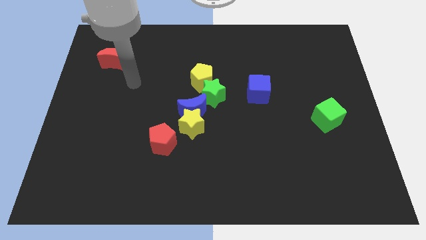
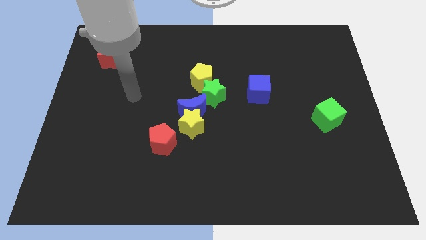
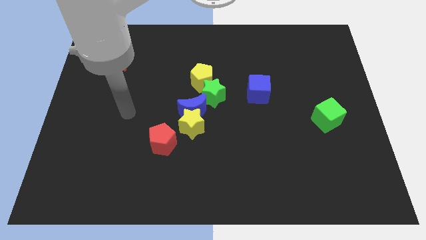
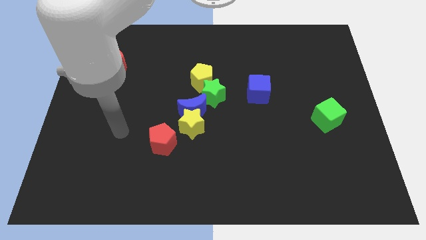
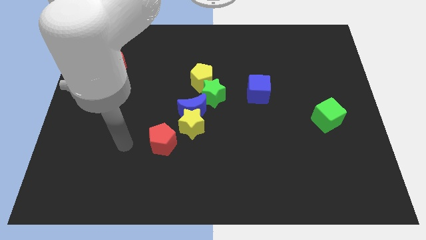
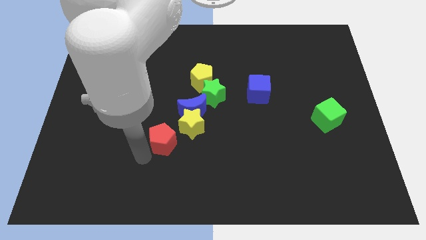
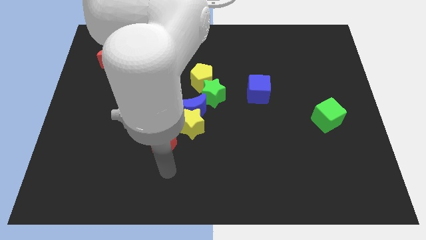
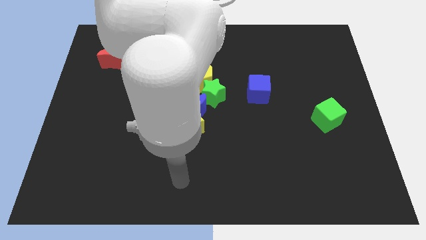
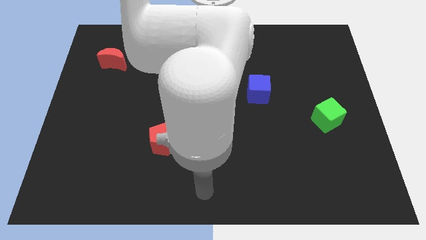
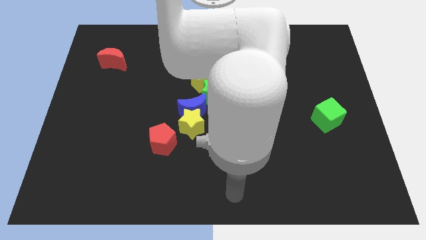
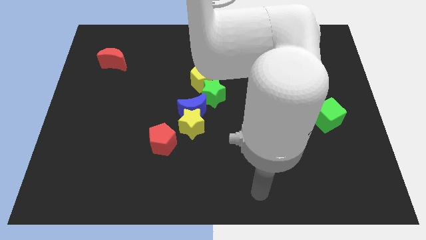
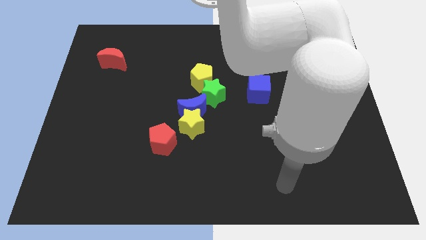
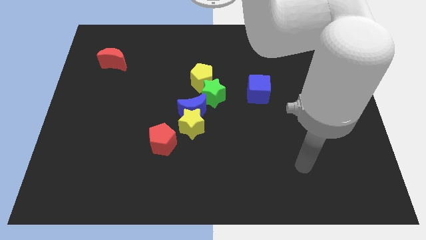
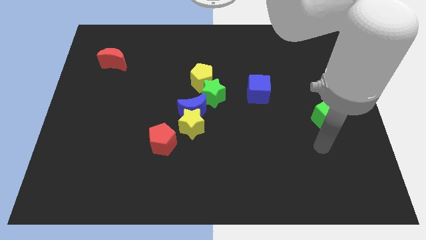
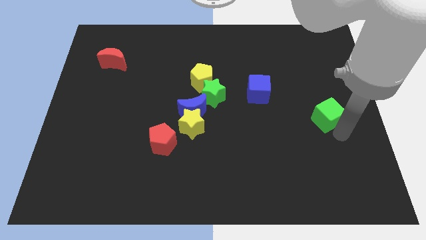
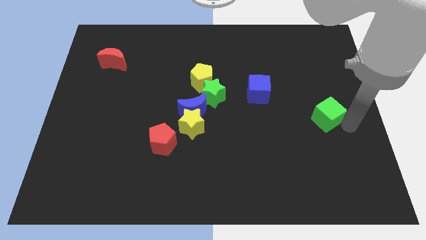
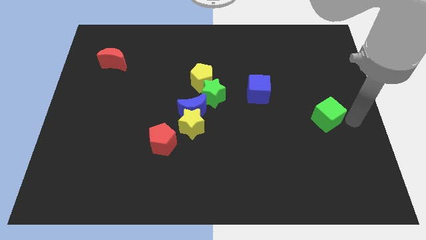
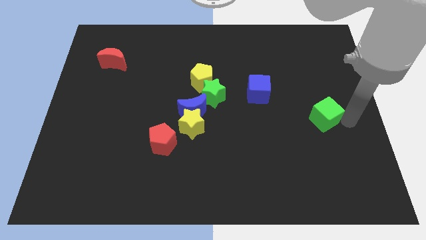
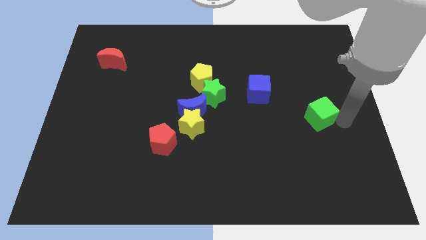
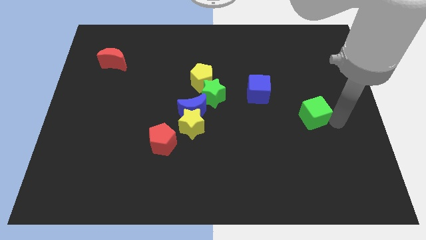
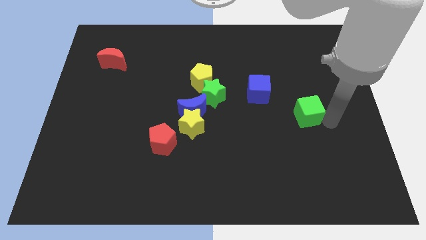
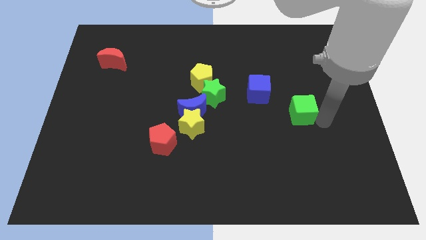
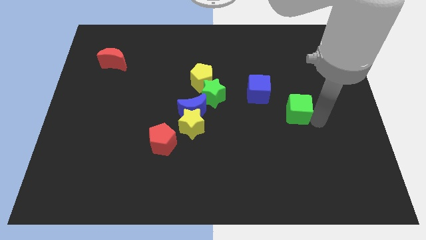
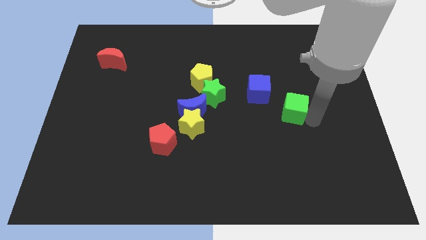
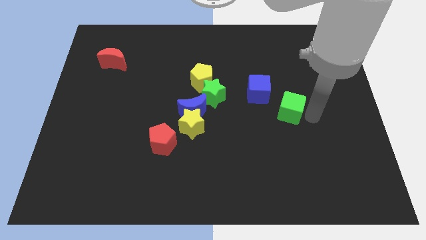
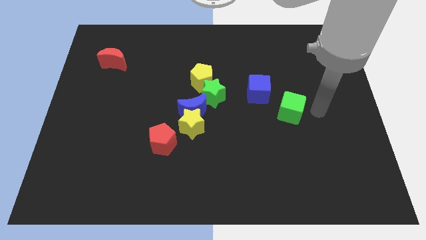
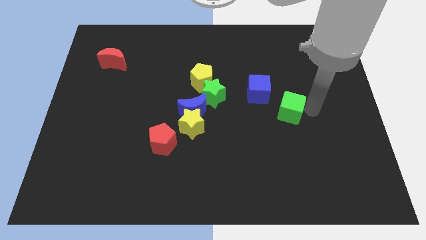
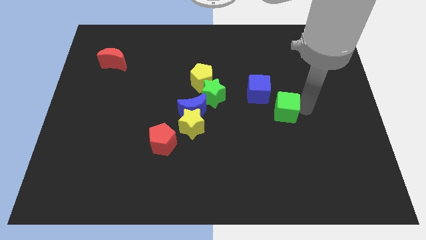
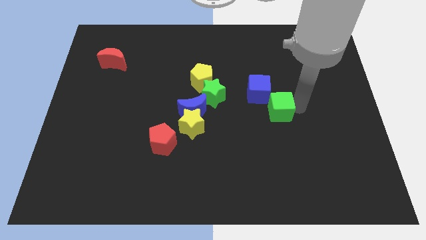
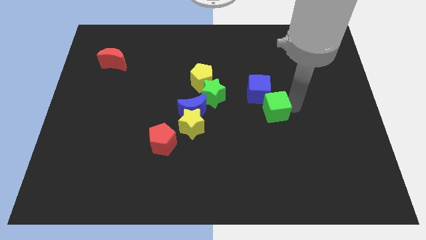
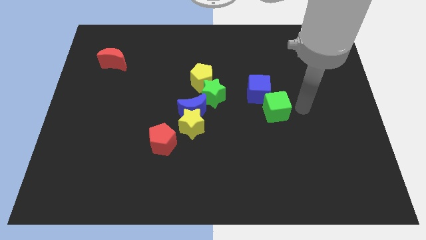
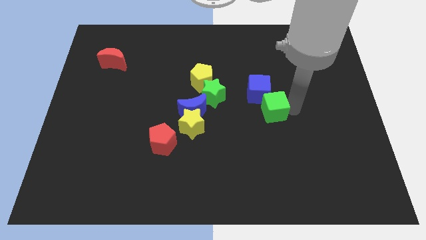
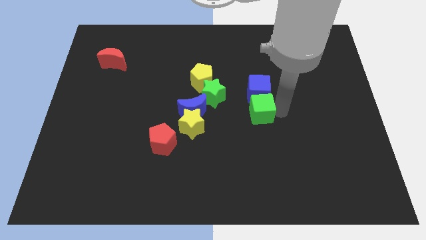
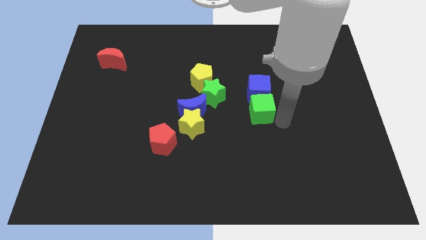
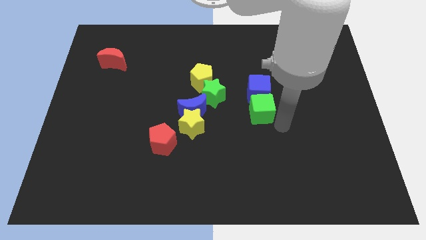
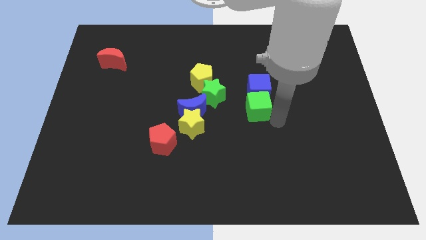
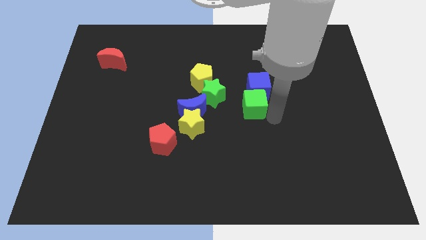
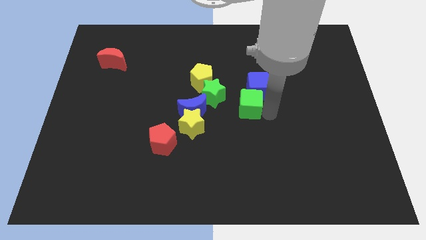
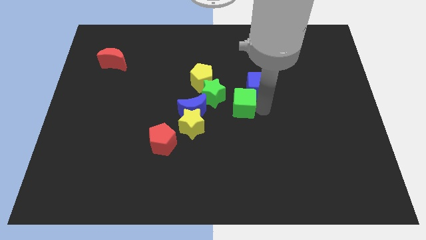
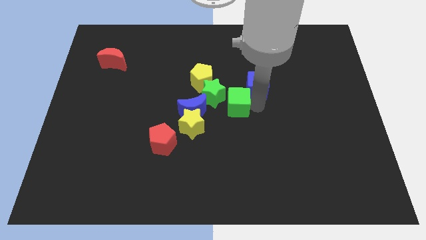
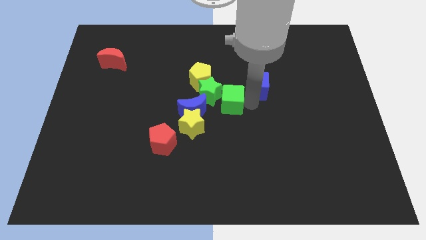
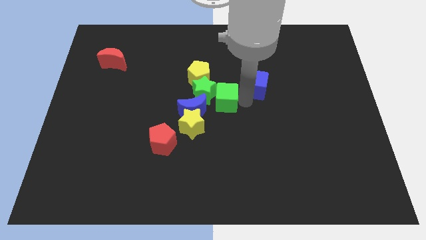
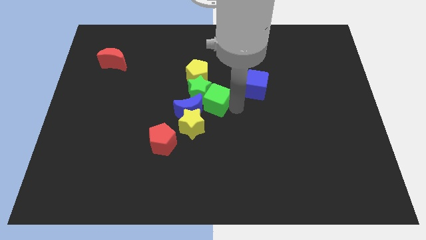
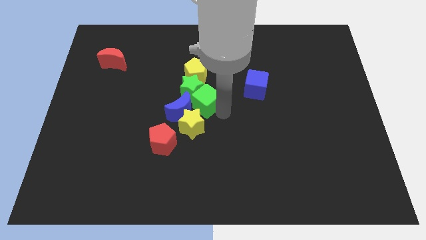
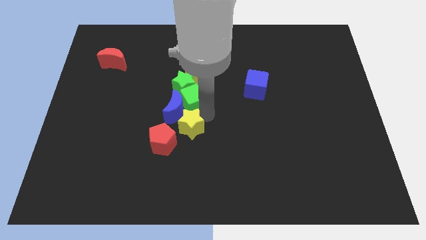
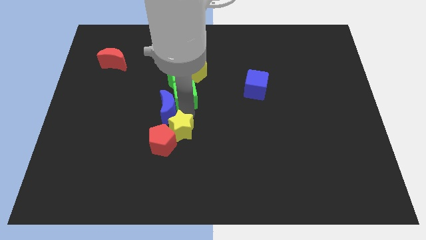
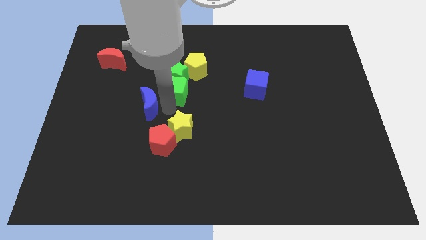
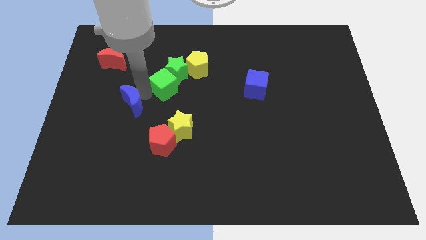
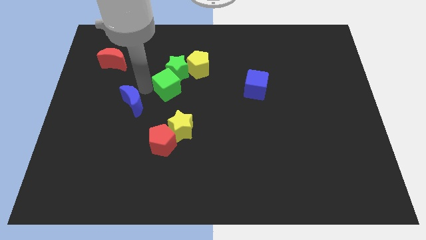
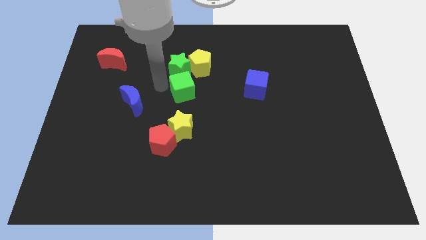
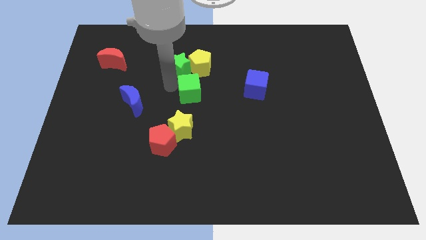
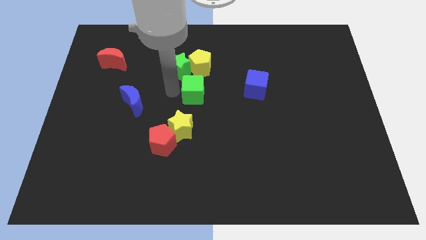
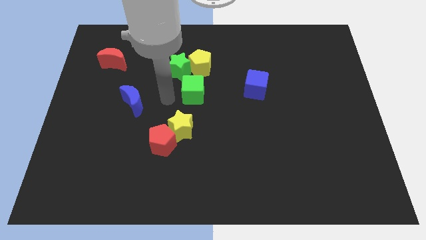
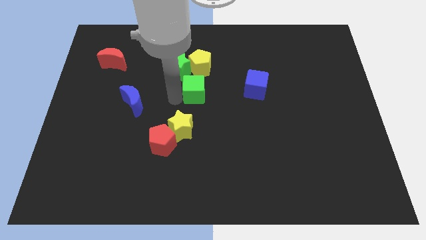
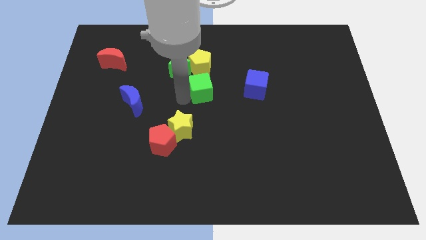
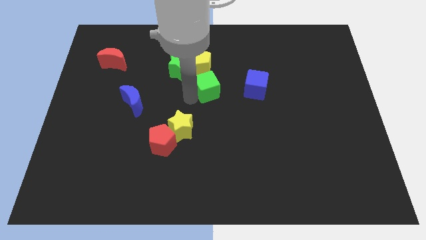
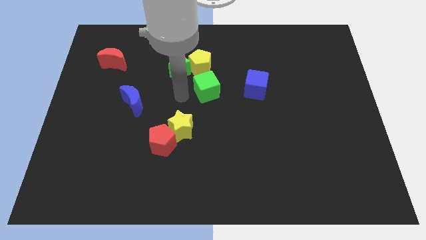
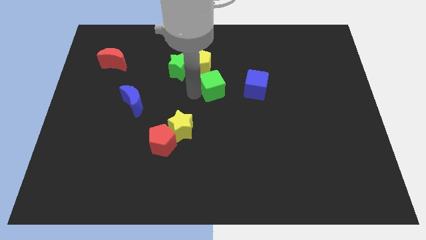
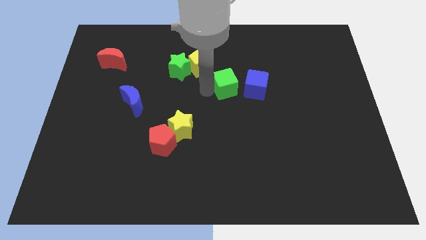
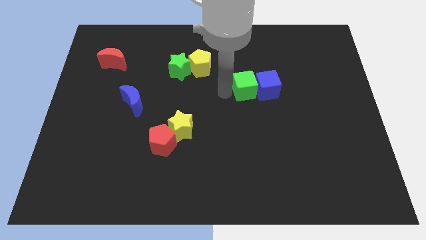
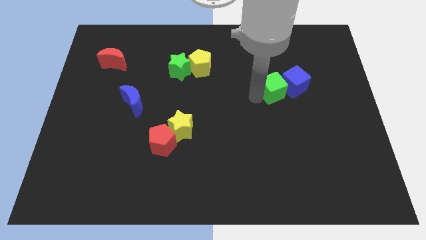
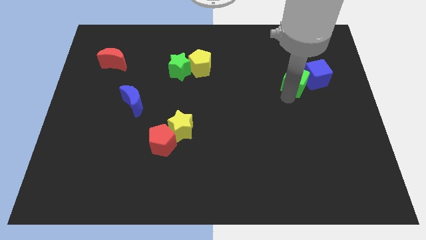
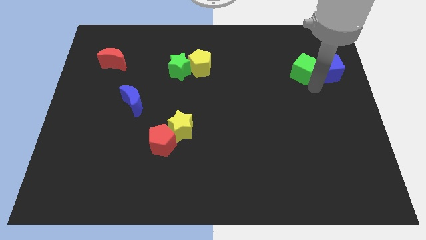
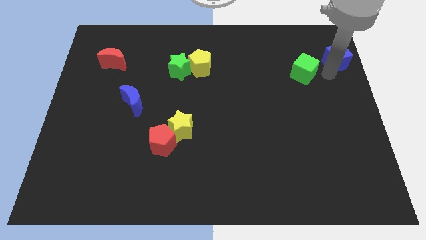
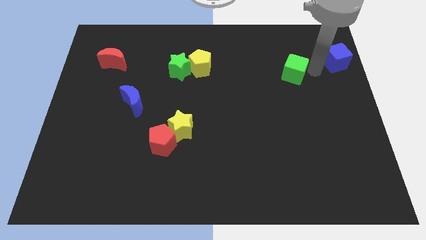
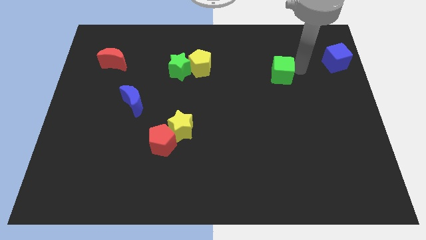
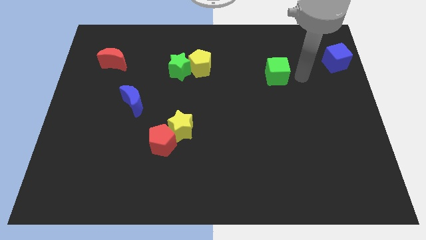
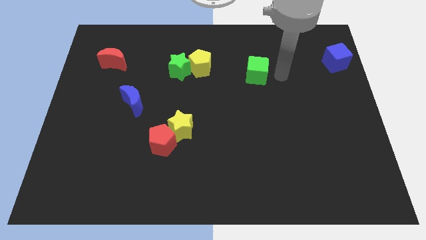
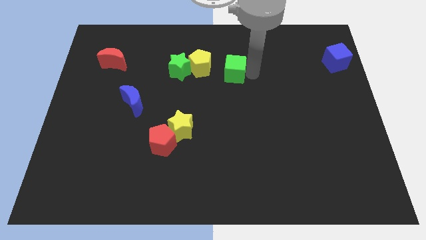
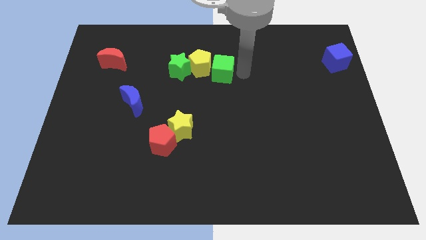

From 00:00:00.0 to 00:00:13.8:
push the green cube next to the yellow pentagon
